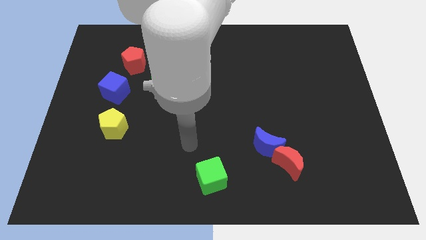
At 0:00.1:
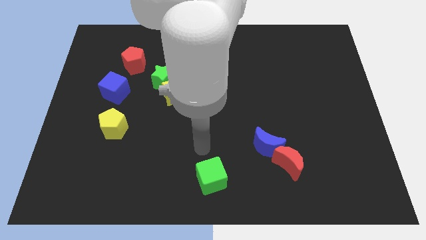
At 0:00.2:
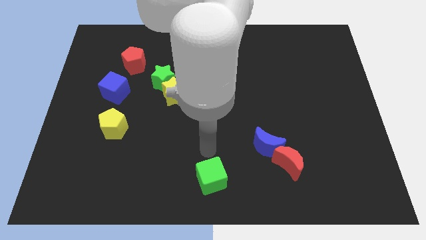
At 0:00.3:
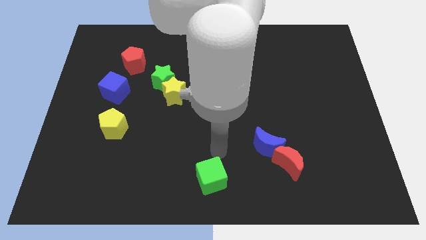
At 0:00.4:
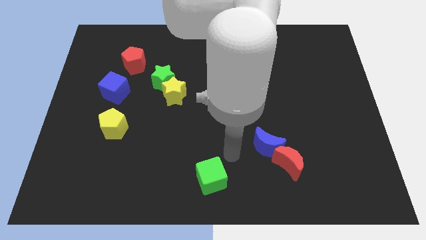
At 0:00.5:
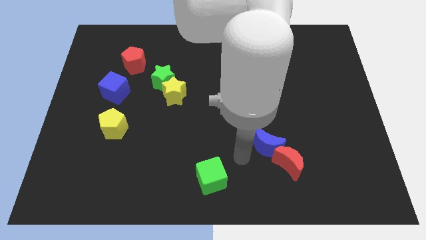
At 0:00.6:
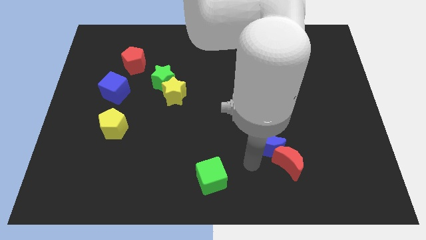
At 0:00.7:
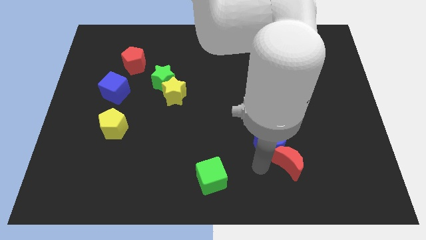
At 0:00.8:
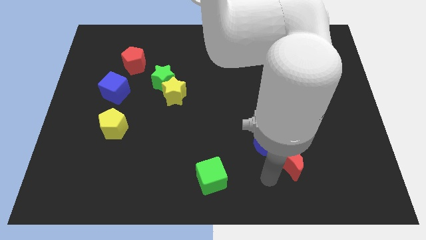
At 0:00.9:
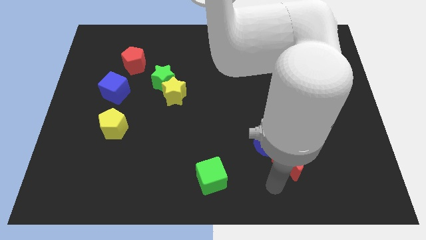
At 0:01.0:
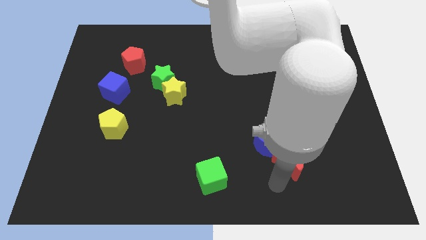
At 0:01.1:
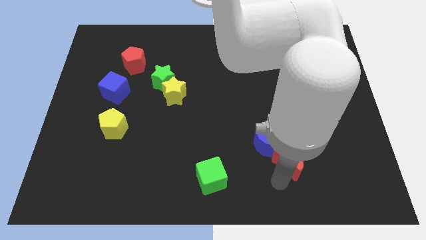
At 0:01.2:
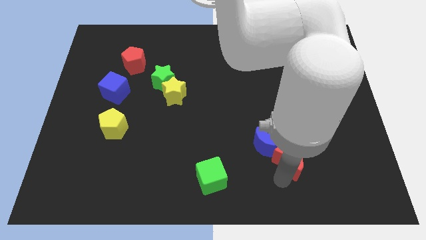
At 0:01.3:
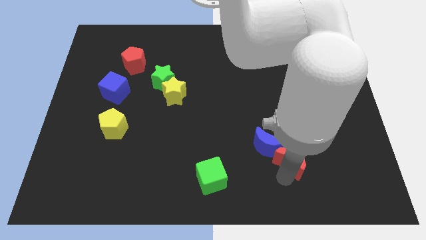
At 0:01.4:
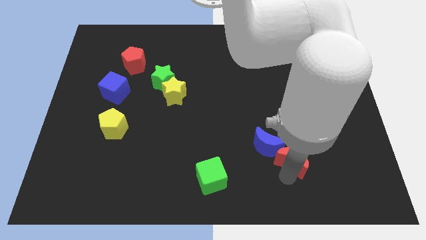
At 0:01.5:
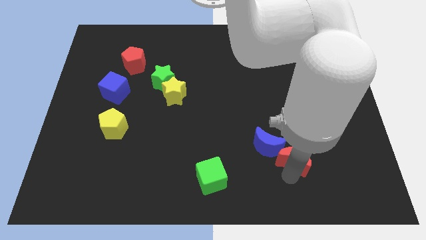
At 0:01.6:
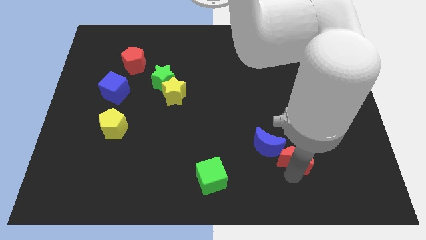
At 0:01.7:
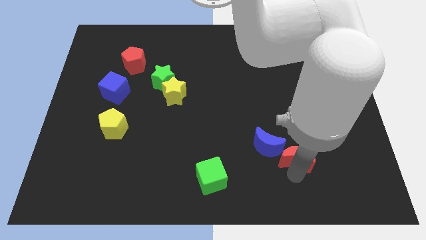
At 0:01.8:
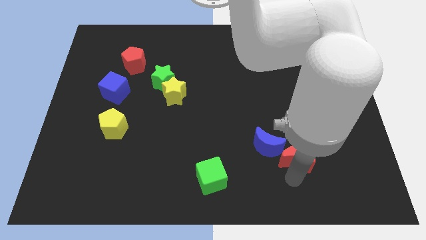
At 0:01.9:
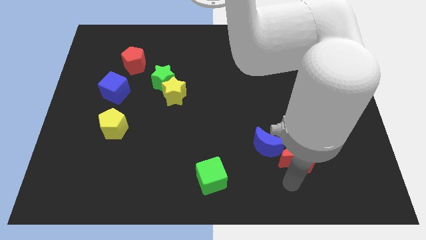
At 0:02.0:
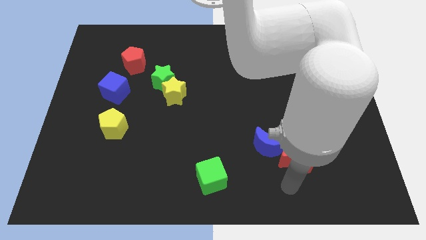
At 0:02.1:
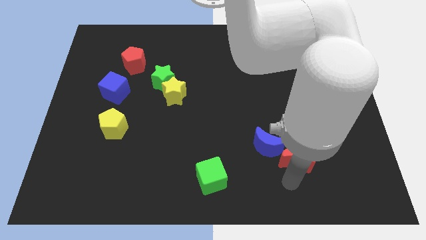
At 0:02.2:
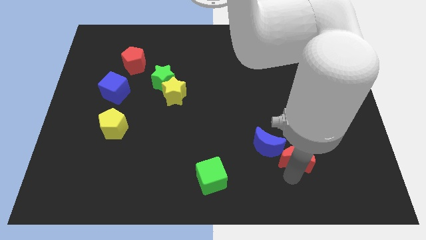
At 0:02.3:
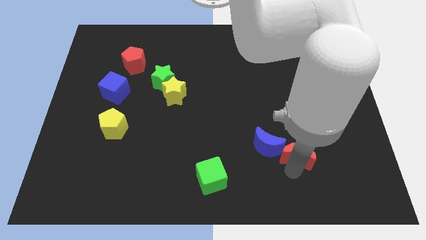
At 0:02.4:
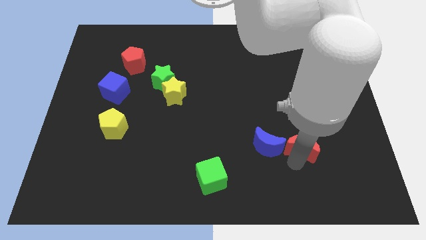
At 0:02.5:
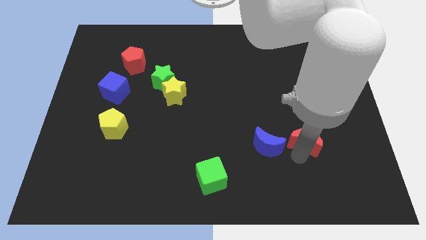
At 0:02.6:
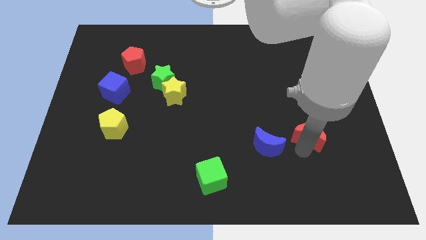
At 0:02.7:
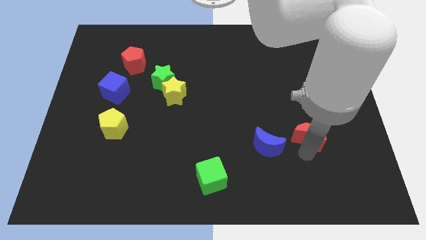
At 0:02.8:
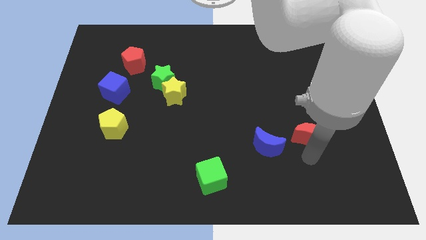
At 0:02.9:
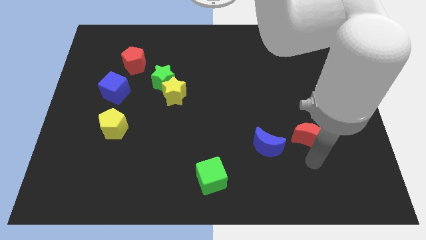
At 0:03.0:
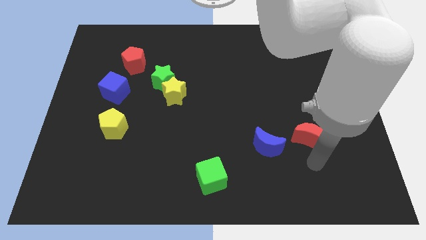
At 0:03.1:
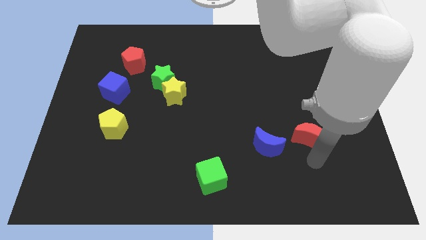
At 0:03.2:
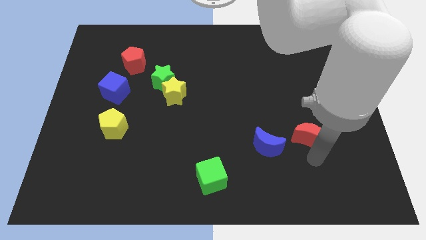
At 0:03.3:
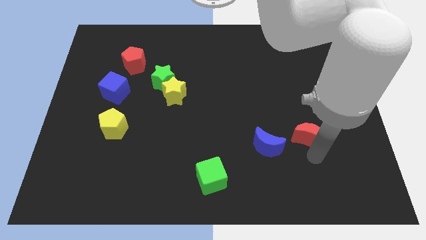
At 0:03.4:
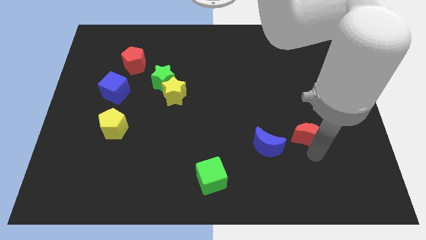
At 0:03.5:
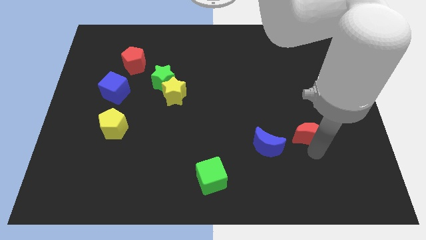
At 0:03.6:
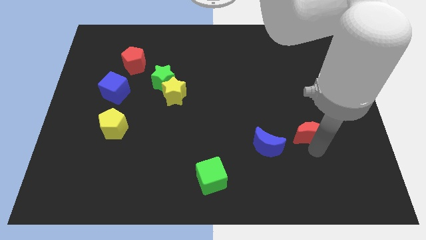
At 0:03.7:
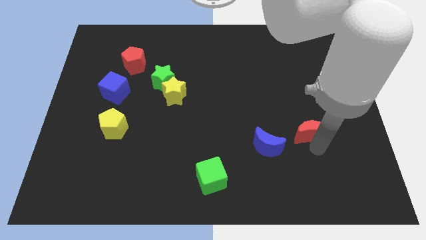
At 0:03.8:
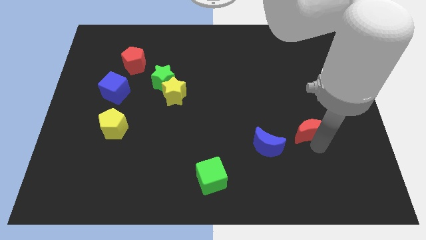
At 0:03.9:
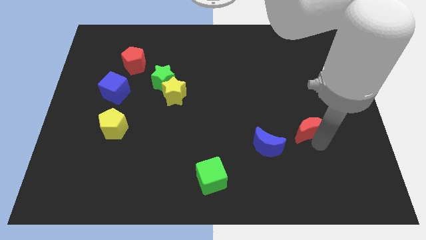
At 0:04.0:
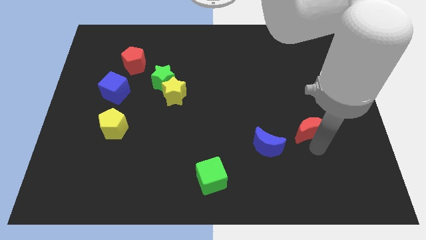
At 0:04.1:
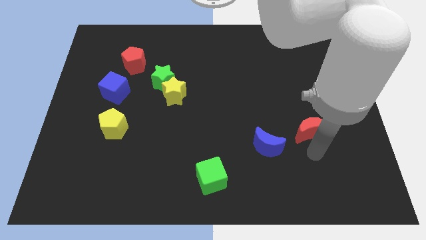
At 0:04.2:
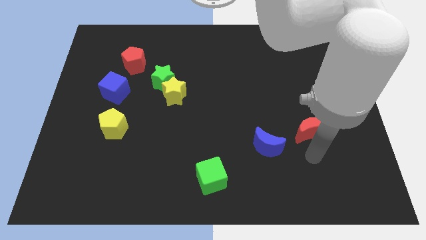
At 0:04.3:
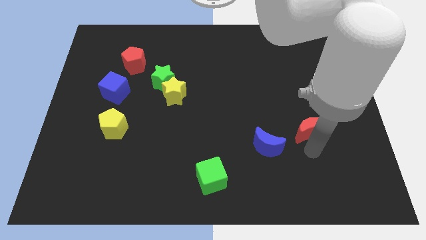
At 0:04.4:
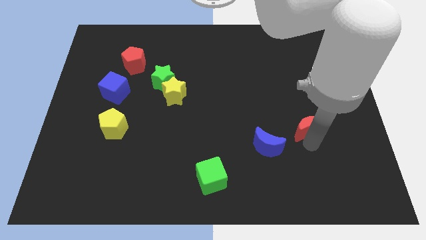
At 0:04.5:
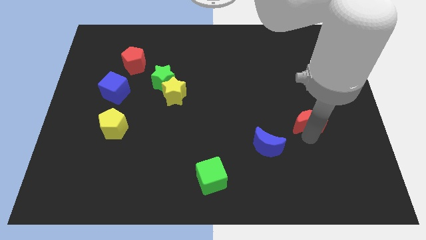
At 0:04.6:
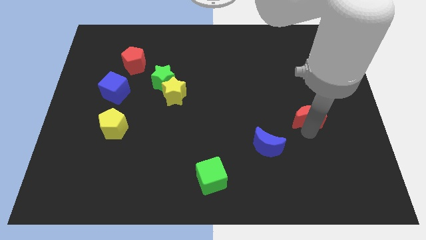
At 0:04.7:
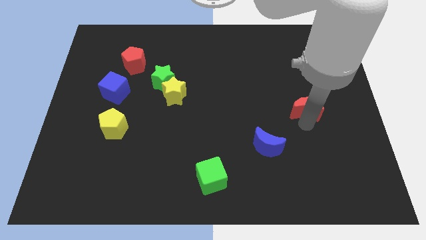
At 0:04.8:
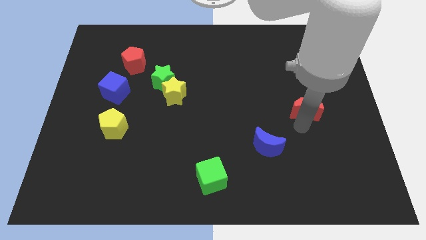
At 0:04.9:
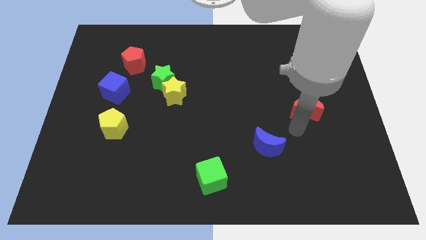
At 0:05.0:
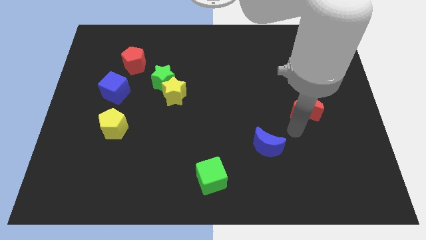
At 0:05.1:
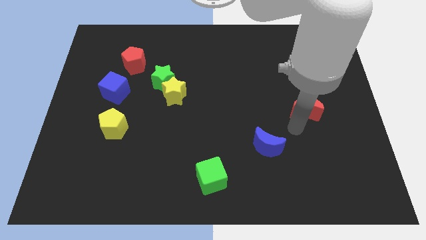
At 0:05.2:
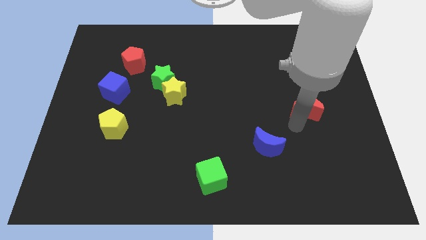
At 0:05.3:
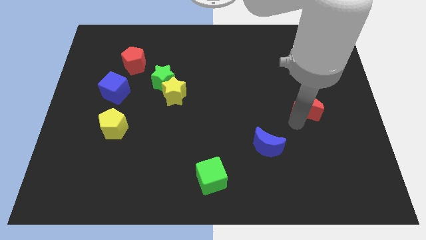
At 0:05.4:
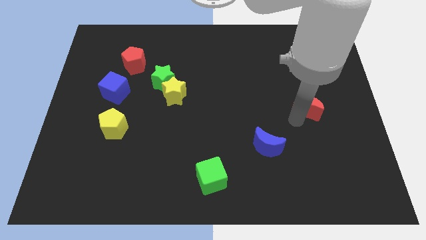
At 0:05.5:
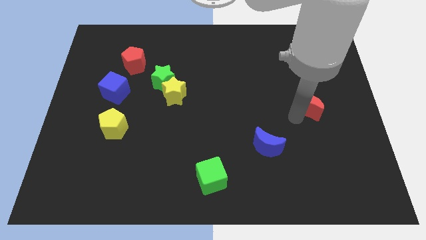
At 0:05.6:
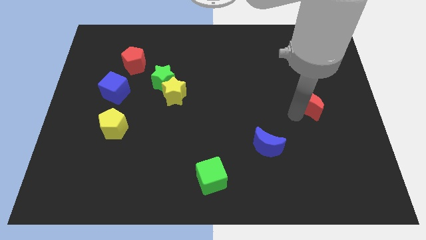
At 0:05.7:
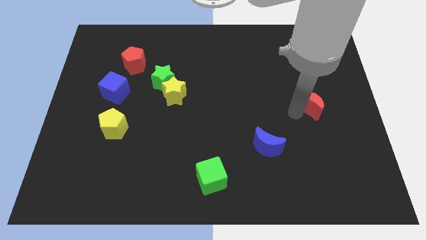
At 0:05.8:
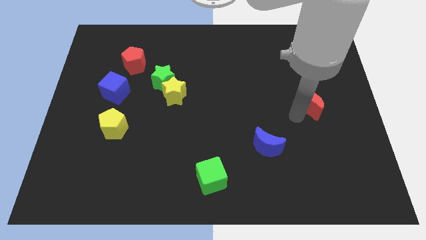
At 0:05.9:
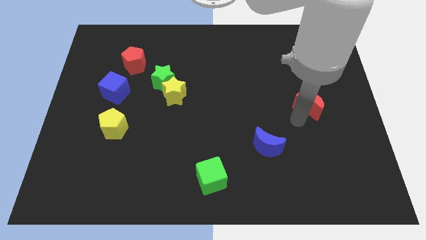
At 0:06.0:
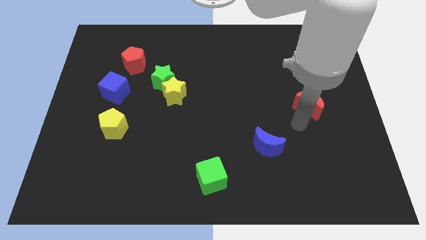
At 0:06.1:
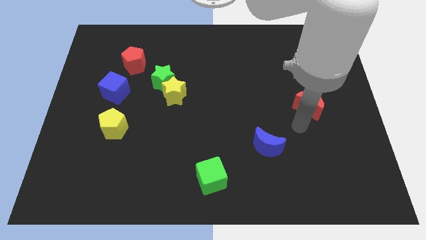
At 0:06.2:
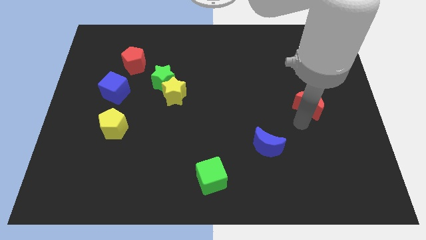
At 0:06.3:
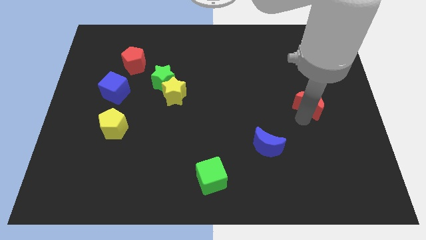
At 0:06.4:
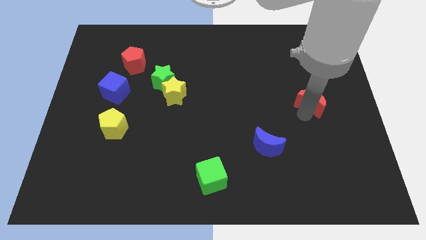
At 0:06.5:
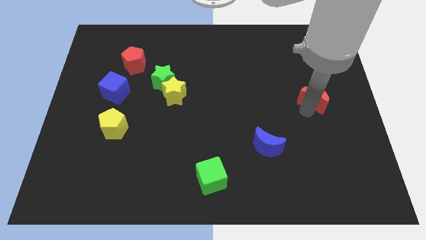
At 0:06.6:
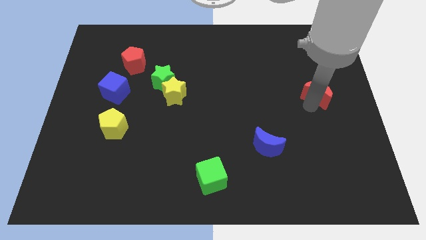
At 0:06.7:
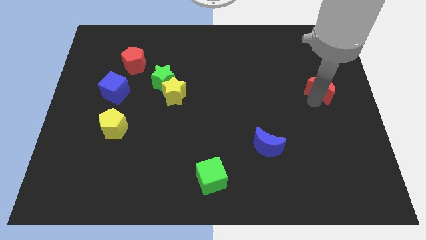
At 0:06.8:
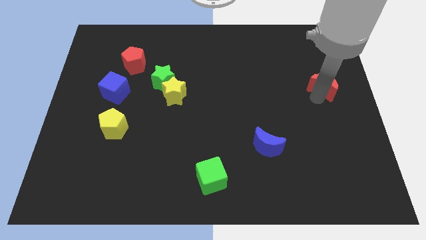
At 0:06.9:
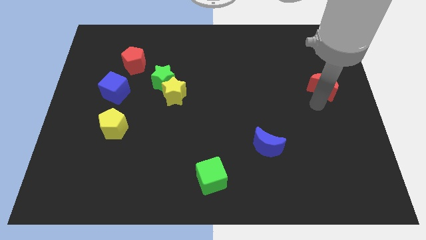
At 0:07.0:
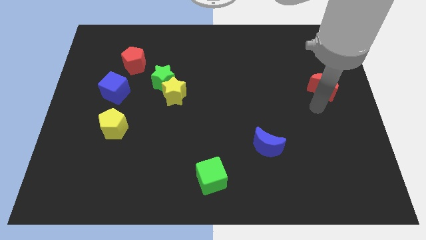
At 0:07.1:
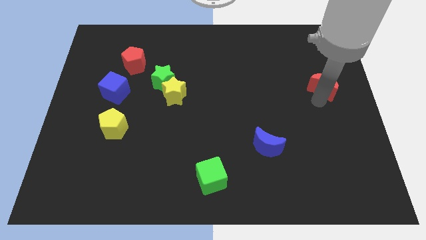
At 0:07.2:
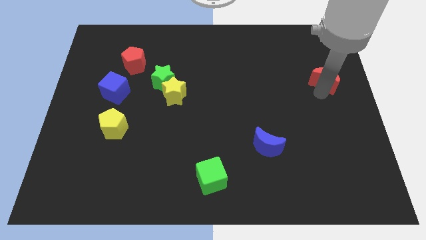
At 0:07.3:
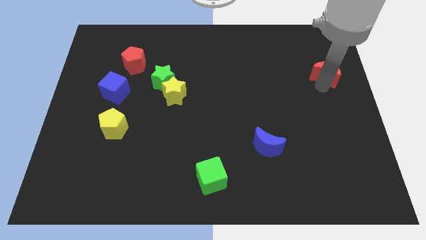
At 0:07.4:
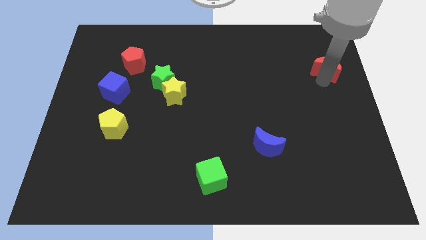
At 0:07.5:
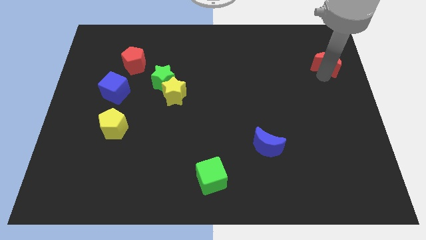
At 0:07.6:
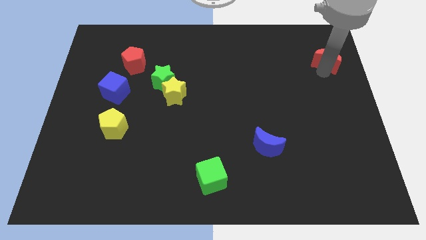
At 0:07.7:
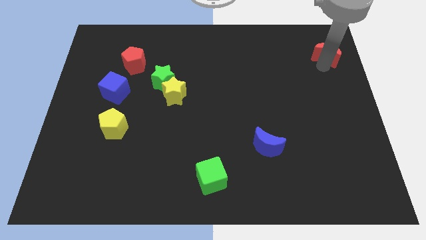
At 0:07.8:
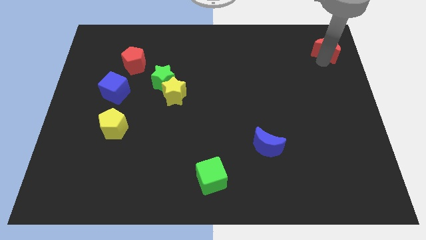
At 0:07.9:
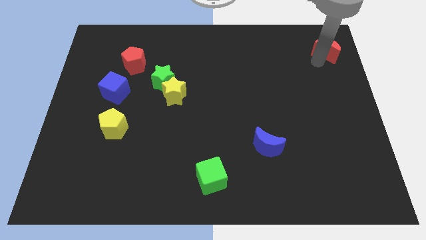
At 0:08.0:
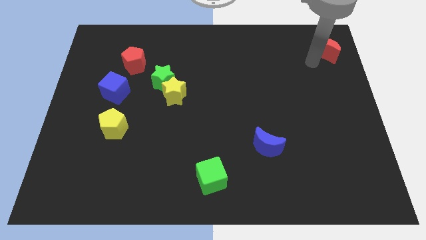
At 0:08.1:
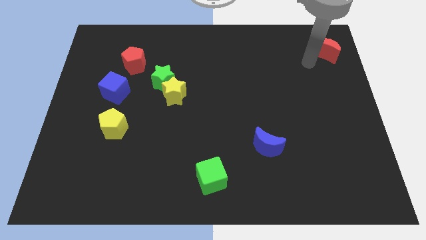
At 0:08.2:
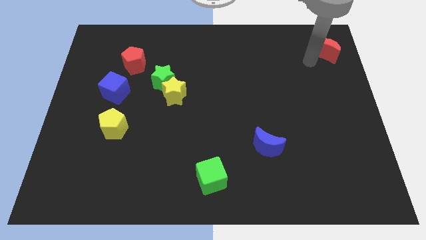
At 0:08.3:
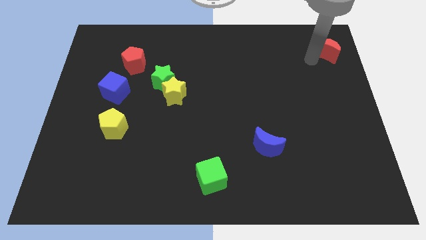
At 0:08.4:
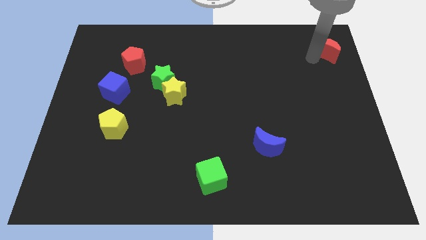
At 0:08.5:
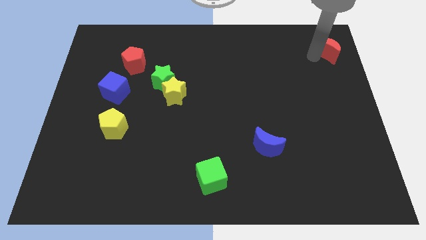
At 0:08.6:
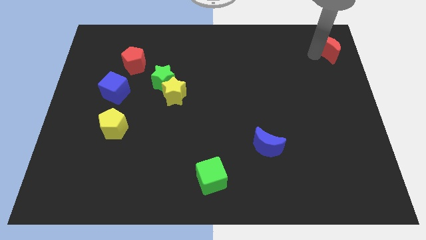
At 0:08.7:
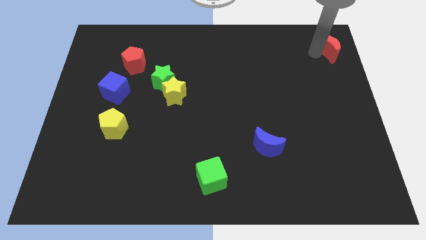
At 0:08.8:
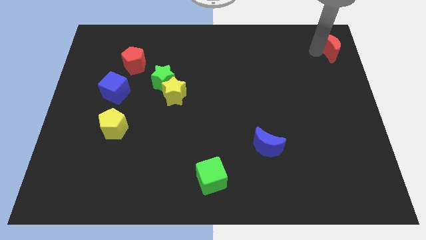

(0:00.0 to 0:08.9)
put the red moon to the top right
